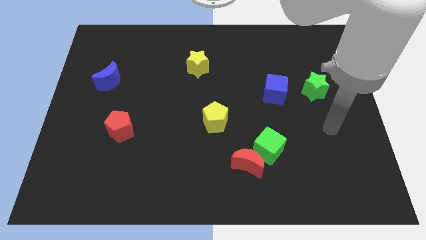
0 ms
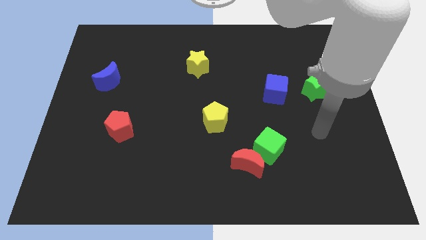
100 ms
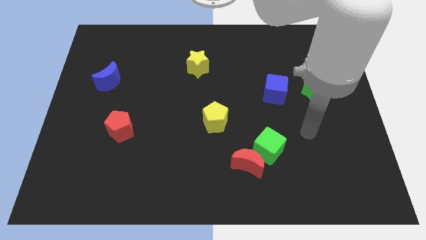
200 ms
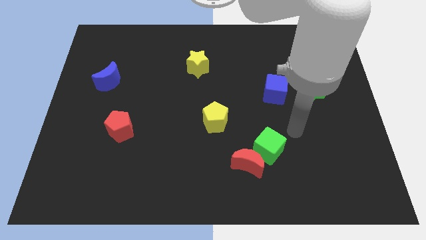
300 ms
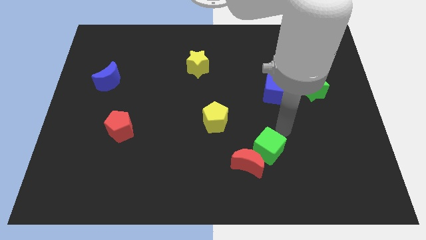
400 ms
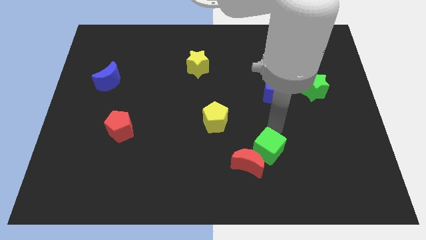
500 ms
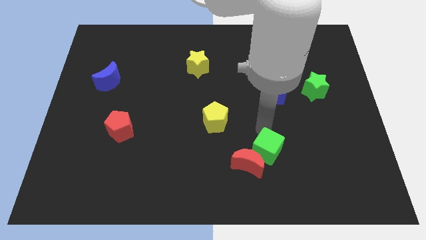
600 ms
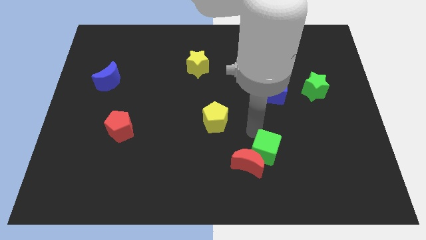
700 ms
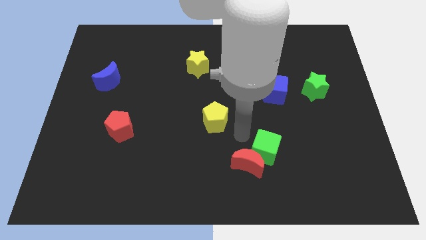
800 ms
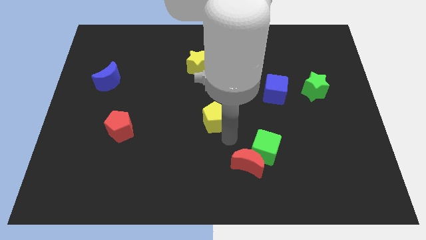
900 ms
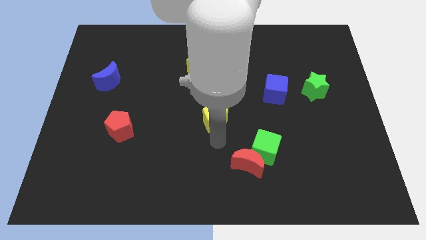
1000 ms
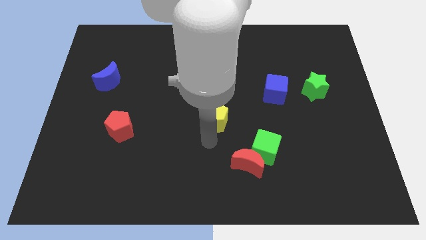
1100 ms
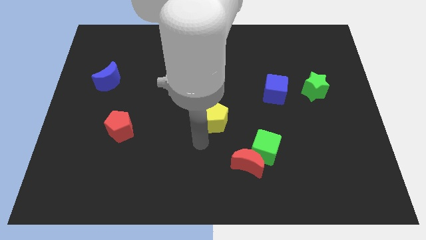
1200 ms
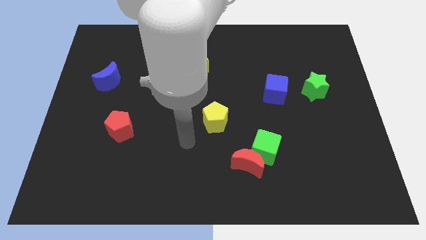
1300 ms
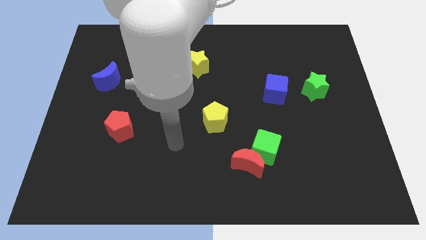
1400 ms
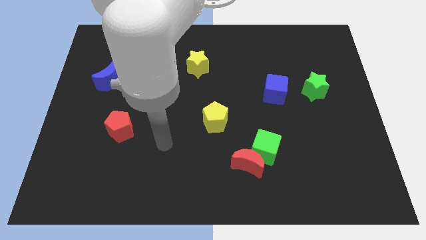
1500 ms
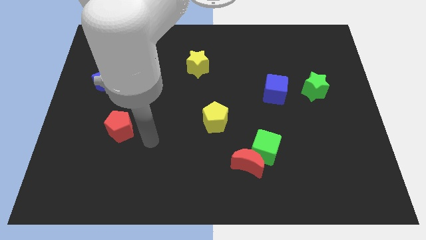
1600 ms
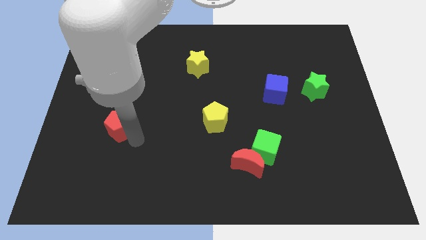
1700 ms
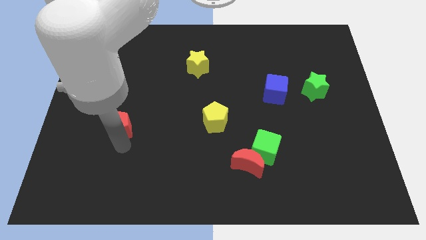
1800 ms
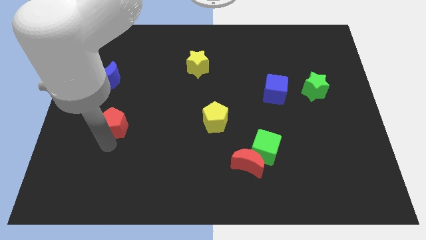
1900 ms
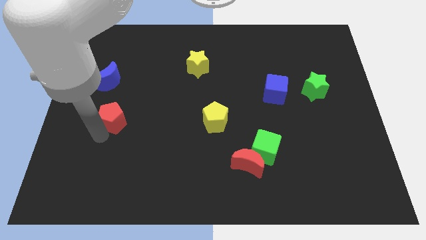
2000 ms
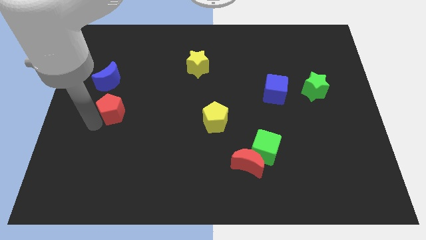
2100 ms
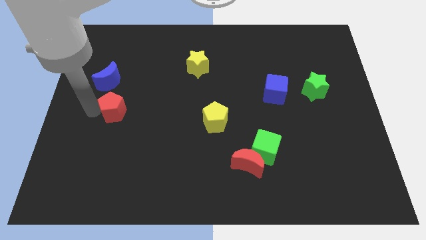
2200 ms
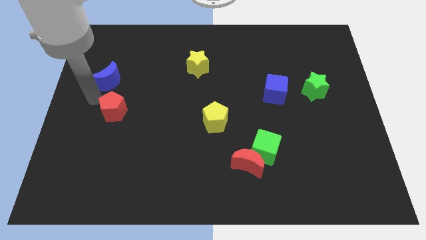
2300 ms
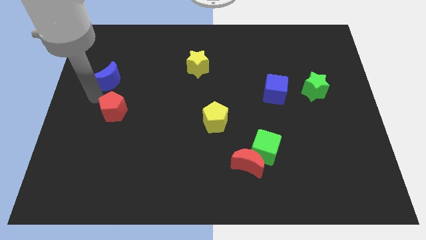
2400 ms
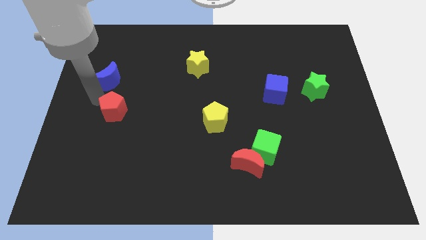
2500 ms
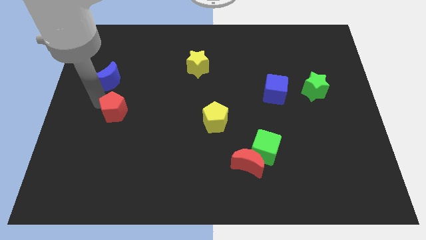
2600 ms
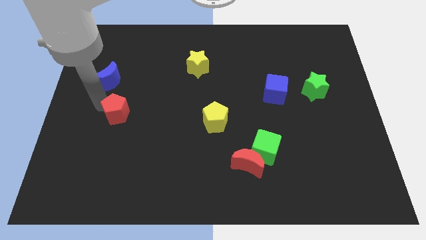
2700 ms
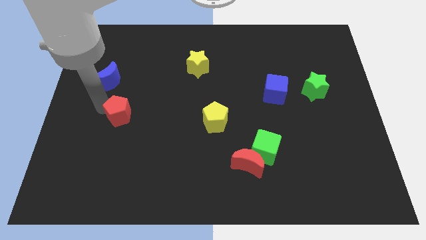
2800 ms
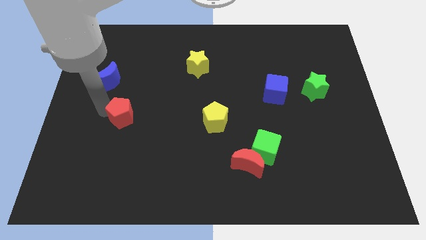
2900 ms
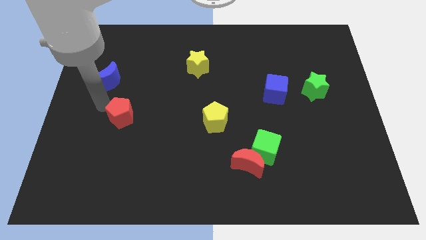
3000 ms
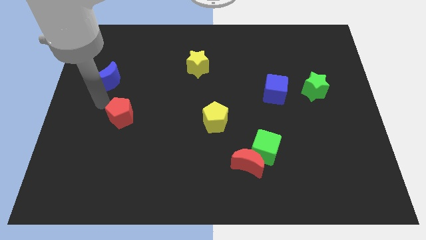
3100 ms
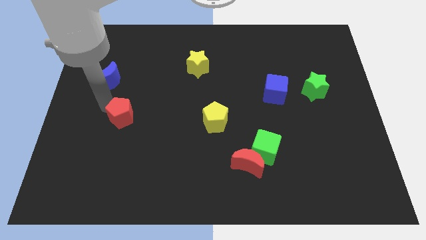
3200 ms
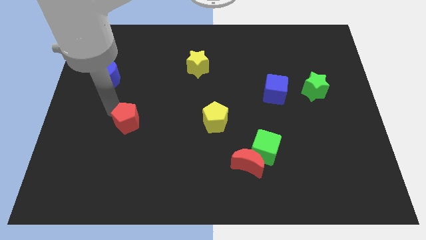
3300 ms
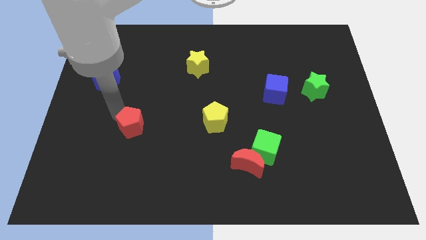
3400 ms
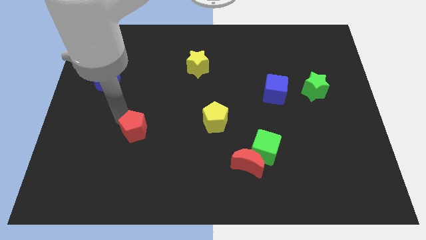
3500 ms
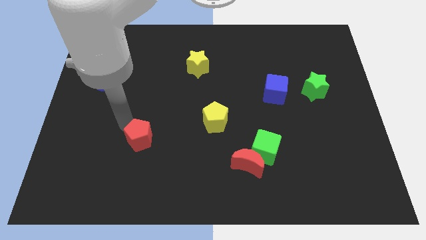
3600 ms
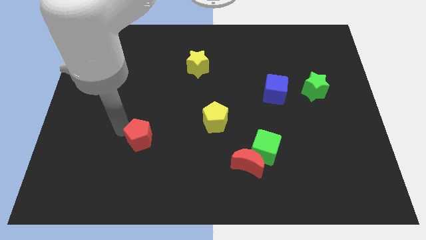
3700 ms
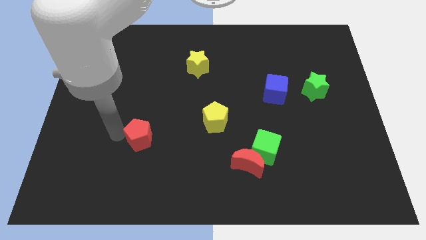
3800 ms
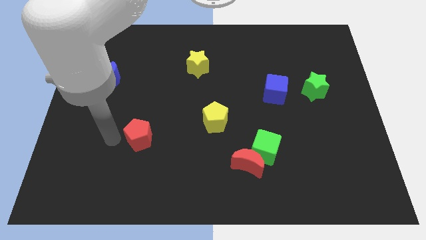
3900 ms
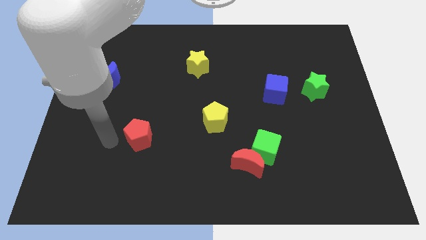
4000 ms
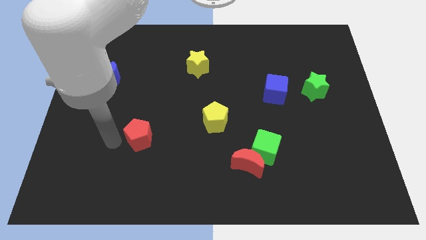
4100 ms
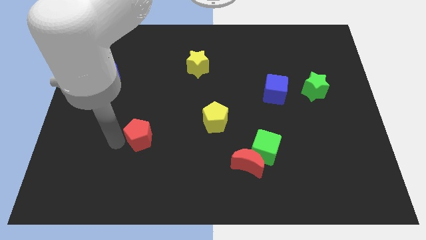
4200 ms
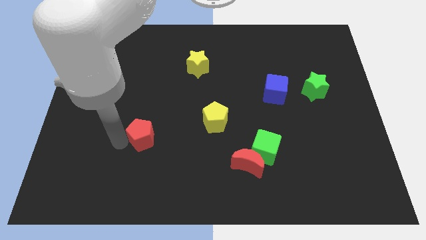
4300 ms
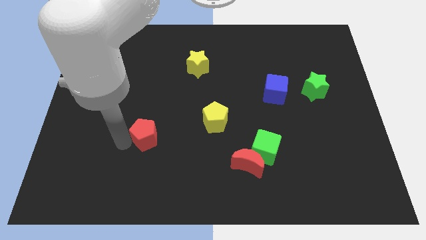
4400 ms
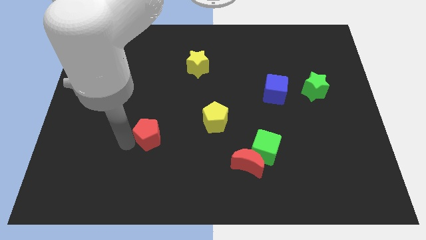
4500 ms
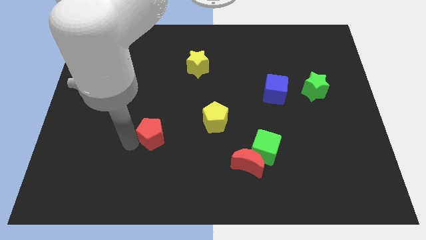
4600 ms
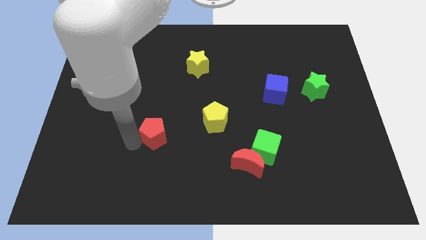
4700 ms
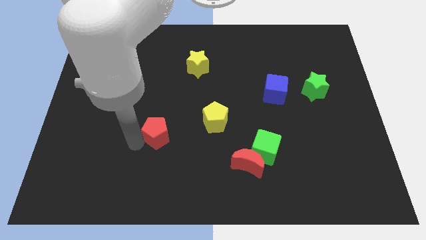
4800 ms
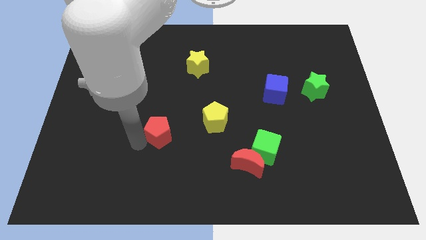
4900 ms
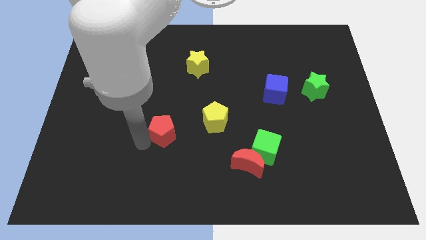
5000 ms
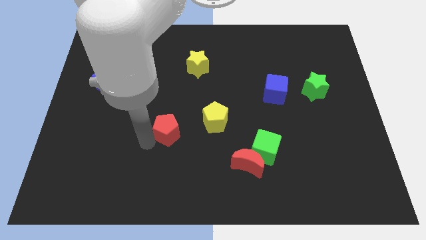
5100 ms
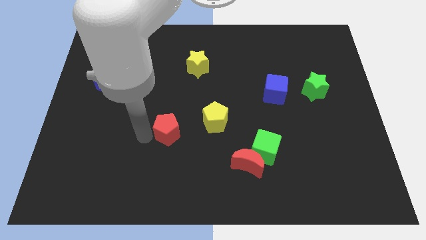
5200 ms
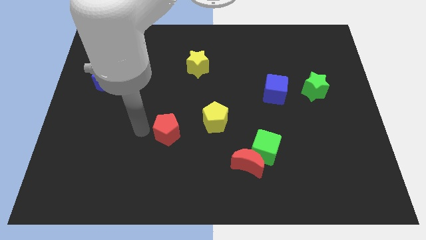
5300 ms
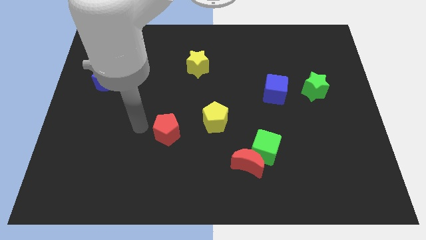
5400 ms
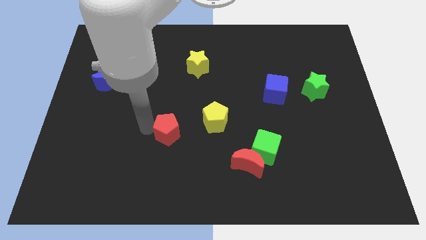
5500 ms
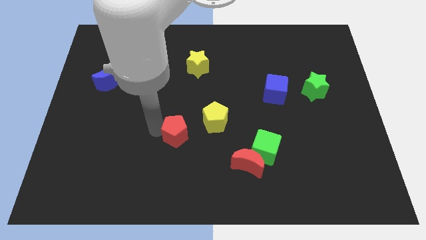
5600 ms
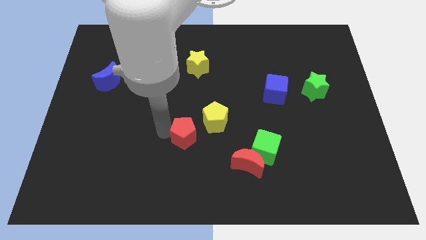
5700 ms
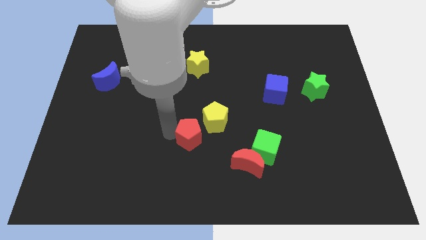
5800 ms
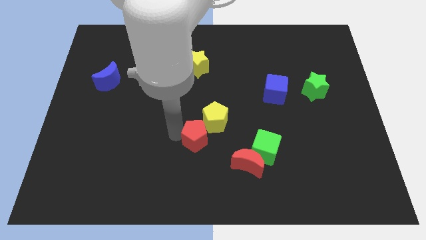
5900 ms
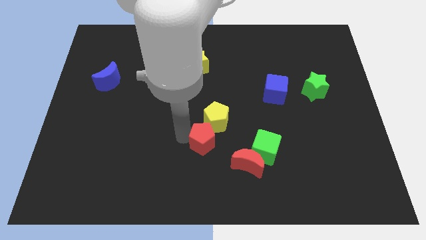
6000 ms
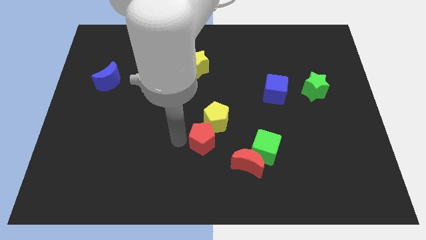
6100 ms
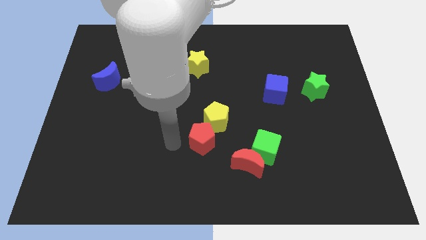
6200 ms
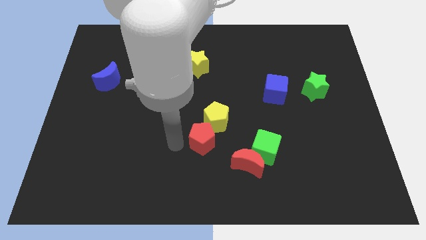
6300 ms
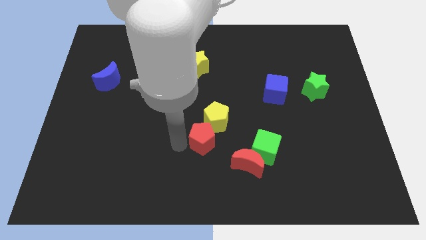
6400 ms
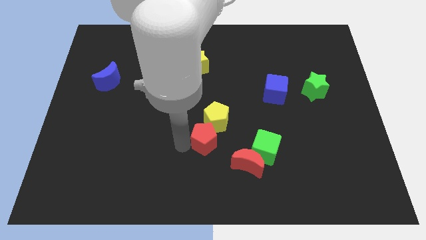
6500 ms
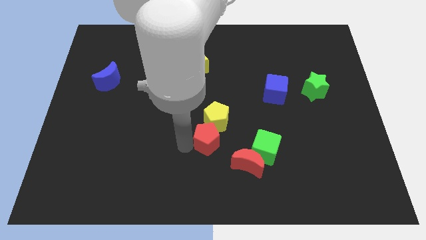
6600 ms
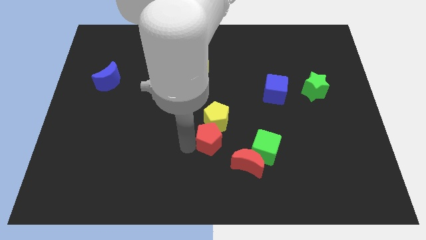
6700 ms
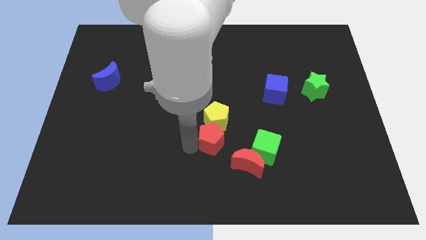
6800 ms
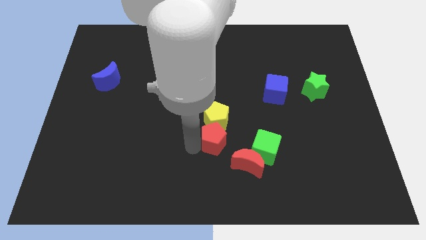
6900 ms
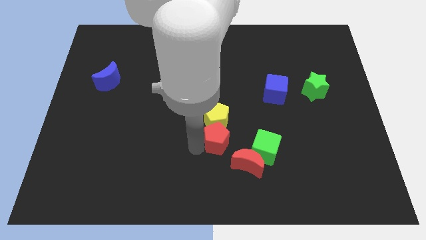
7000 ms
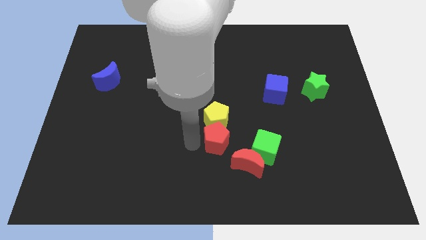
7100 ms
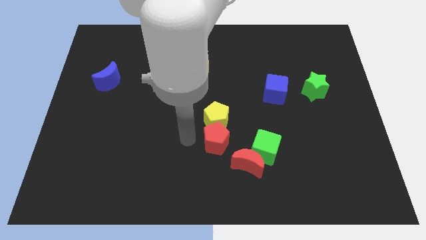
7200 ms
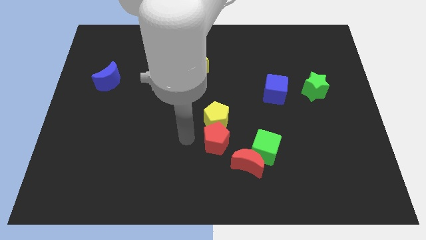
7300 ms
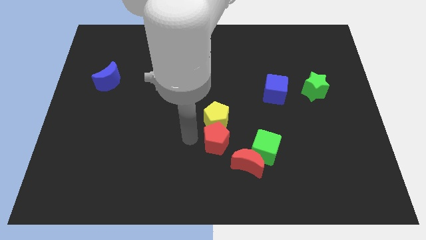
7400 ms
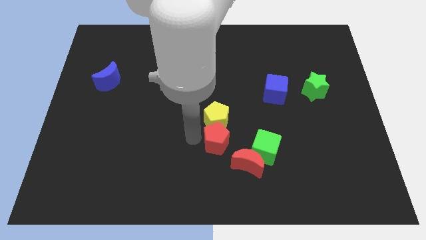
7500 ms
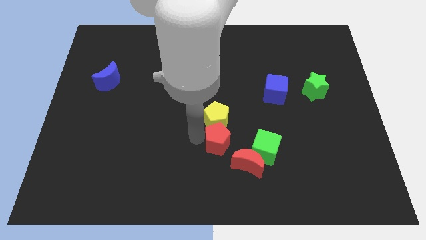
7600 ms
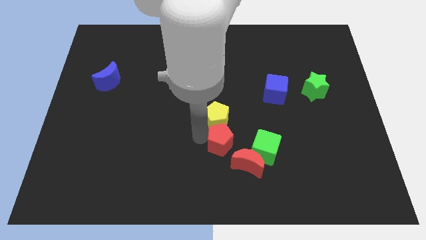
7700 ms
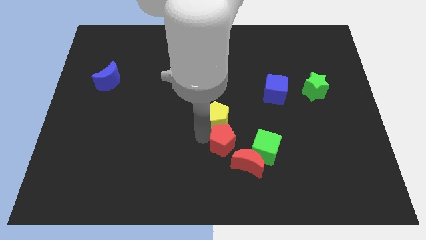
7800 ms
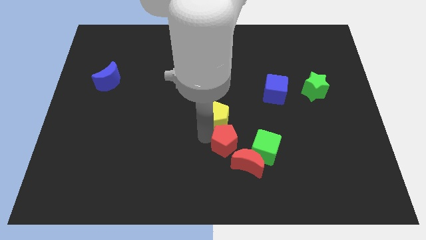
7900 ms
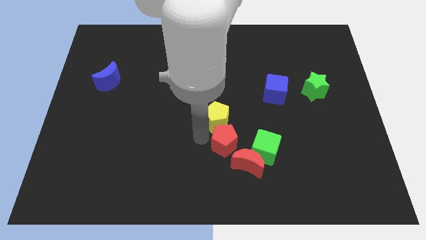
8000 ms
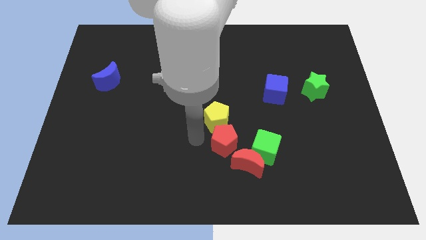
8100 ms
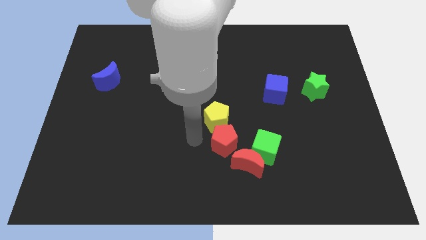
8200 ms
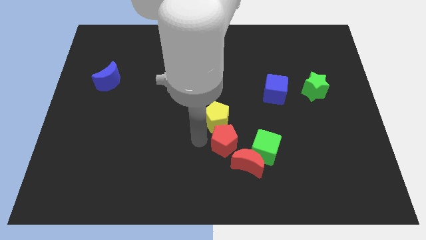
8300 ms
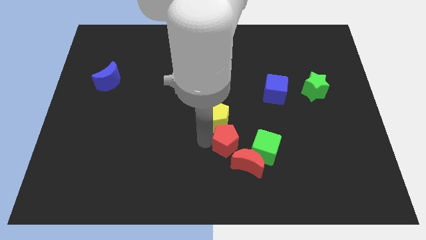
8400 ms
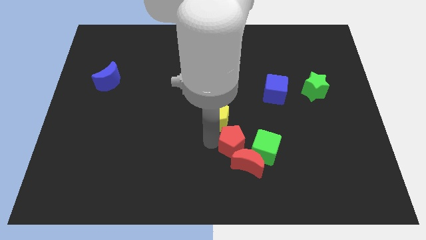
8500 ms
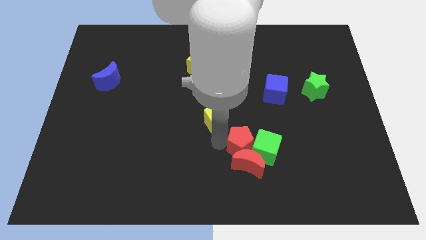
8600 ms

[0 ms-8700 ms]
push the red pentagon towards the green cube
